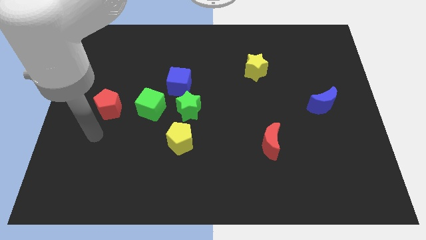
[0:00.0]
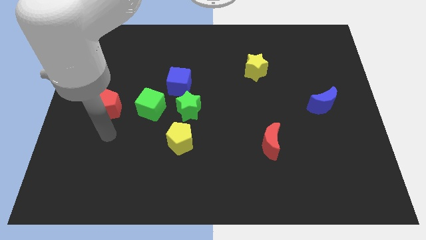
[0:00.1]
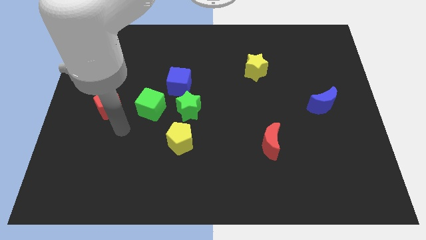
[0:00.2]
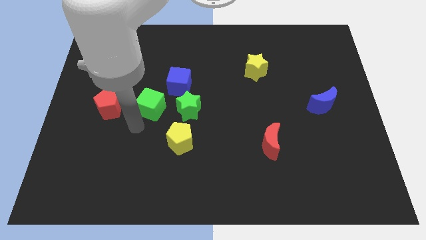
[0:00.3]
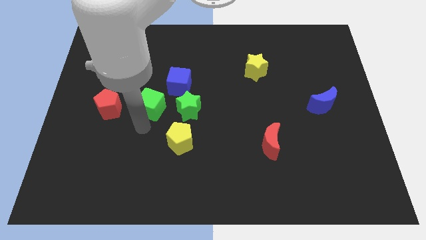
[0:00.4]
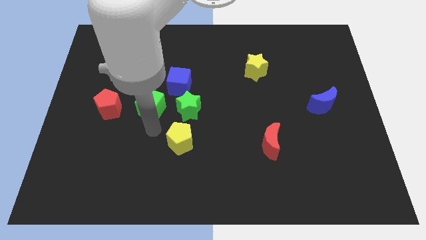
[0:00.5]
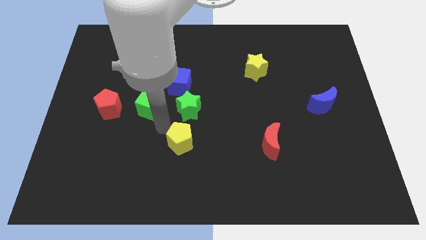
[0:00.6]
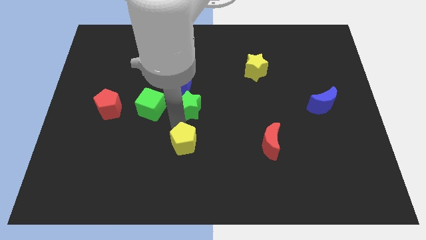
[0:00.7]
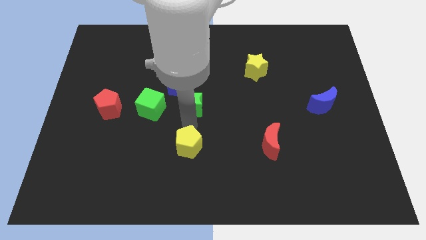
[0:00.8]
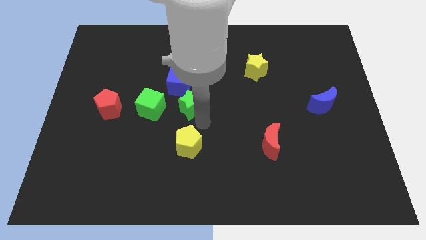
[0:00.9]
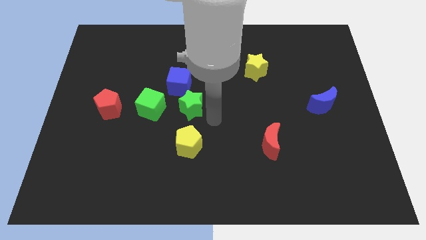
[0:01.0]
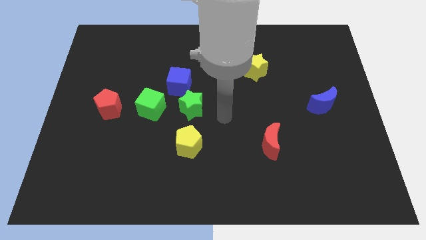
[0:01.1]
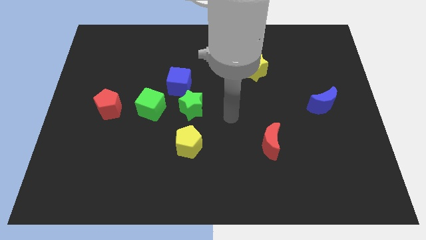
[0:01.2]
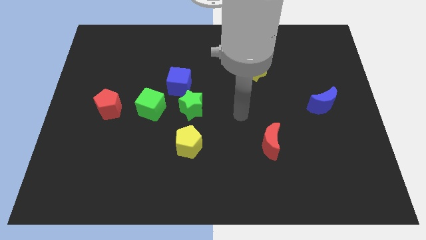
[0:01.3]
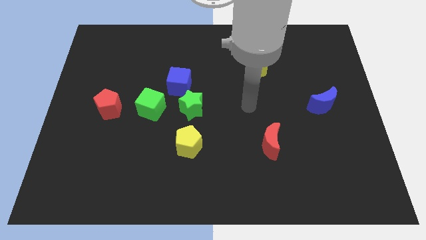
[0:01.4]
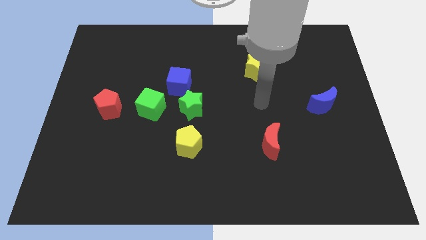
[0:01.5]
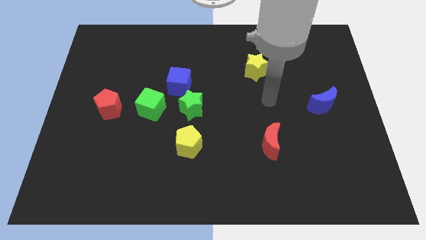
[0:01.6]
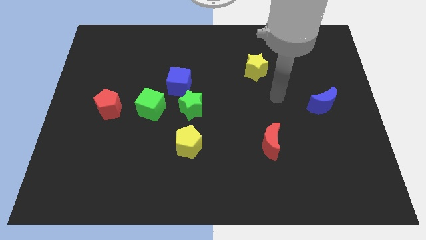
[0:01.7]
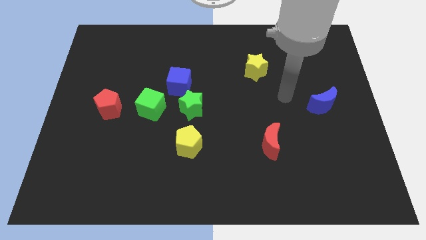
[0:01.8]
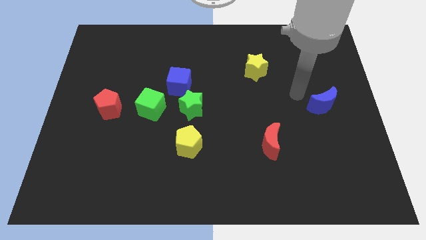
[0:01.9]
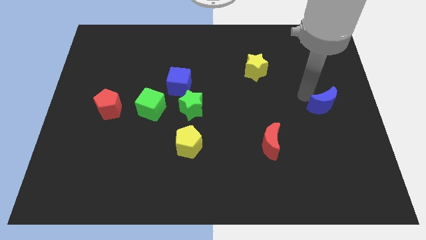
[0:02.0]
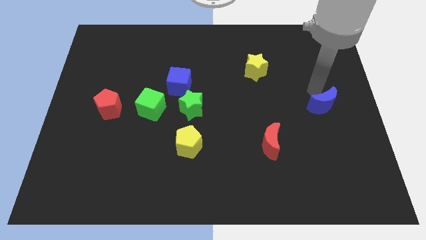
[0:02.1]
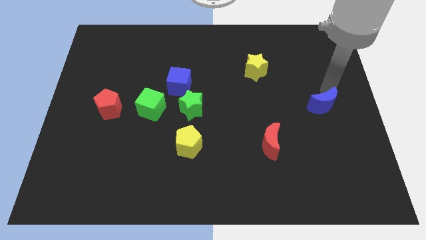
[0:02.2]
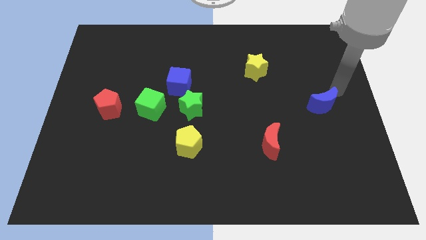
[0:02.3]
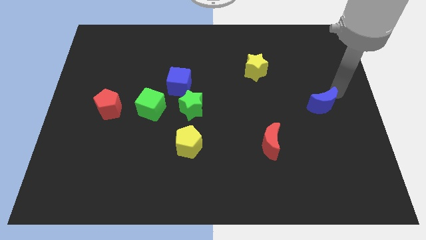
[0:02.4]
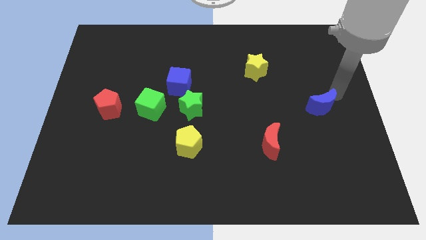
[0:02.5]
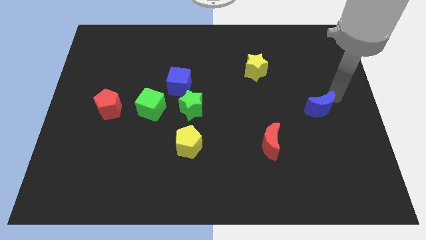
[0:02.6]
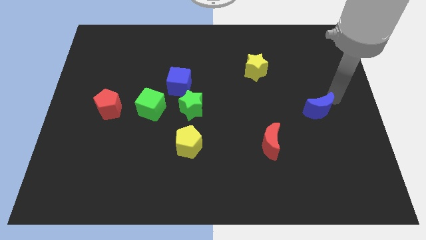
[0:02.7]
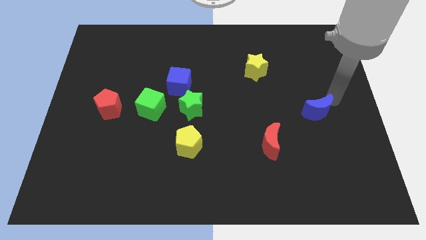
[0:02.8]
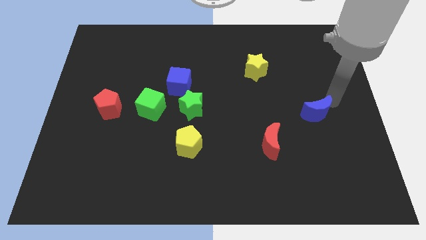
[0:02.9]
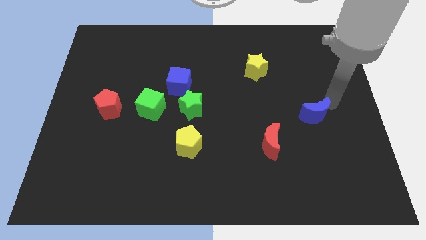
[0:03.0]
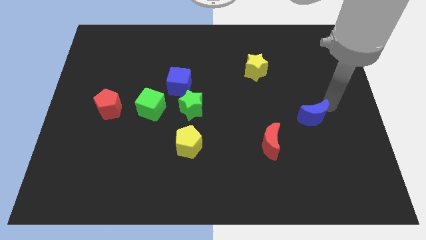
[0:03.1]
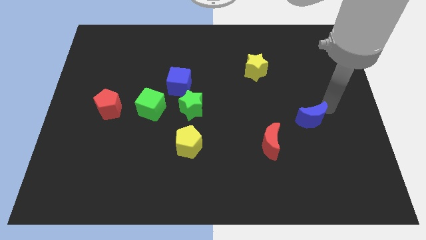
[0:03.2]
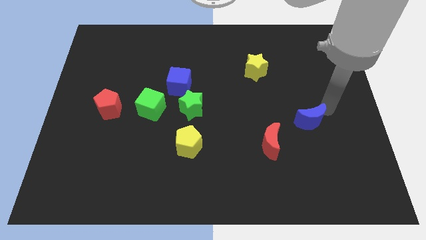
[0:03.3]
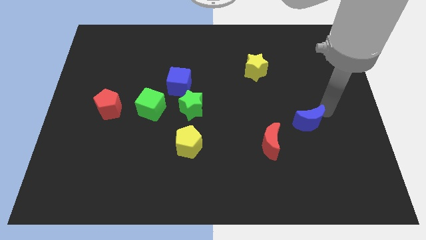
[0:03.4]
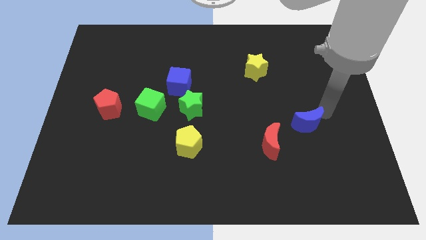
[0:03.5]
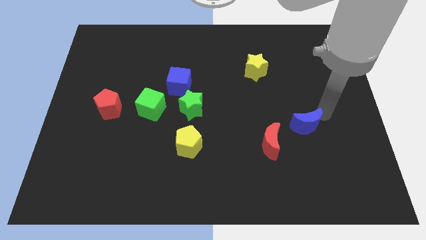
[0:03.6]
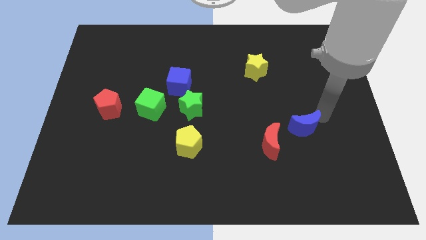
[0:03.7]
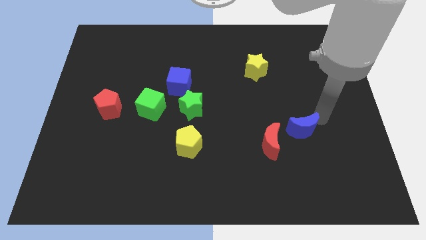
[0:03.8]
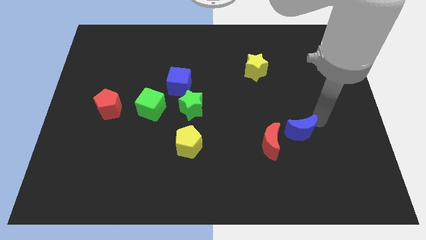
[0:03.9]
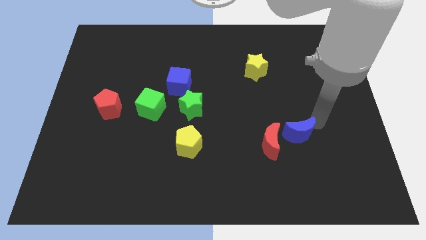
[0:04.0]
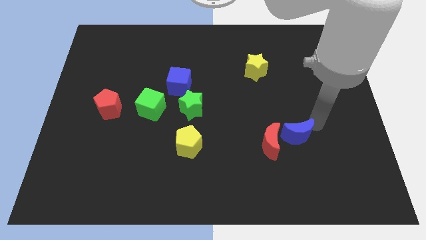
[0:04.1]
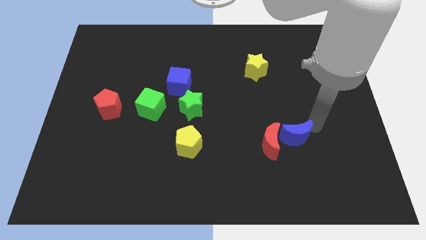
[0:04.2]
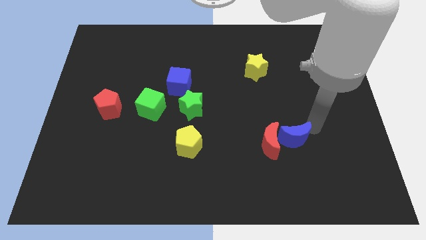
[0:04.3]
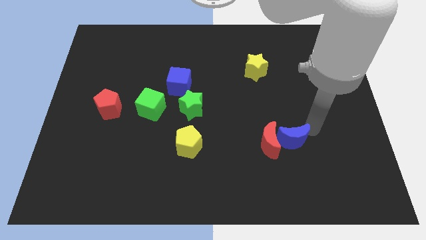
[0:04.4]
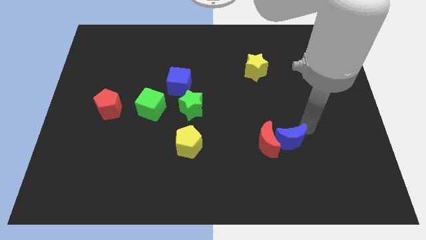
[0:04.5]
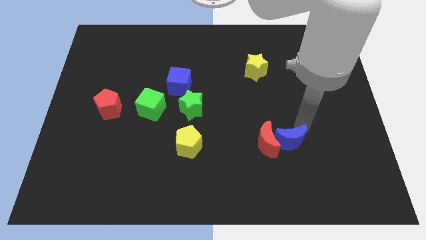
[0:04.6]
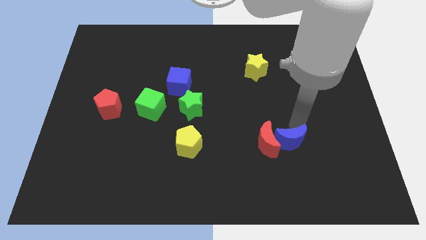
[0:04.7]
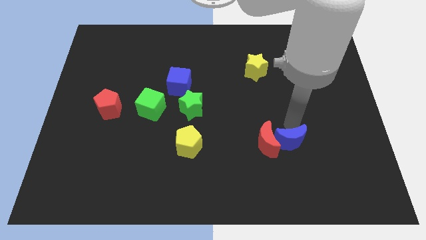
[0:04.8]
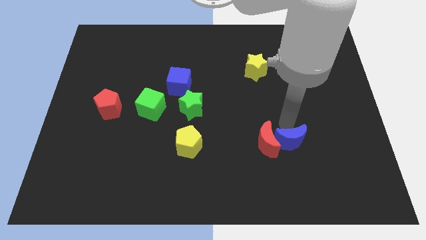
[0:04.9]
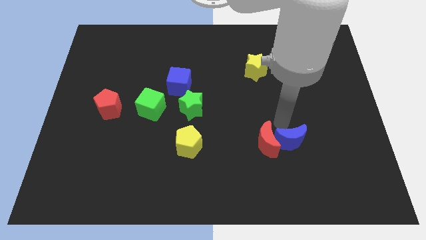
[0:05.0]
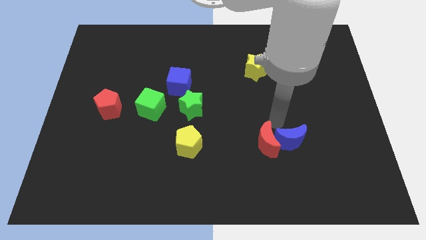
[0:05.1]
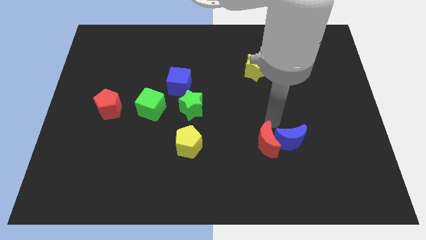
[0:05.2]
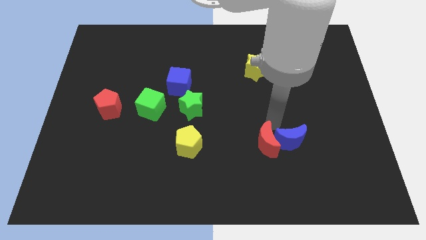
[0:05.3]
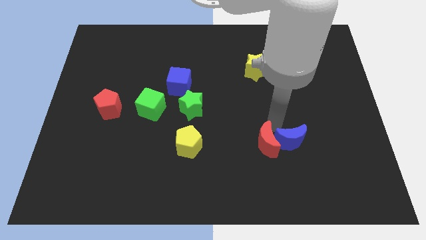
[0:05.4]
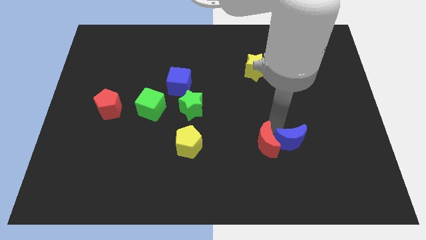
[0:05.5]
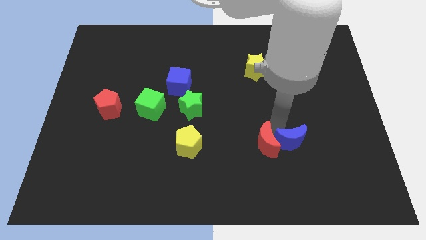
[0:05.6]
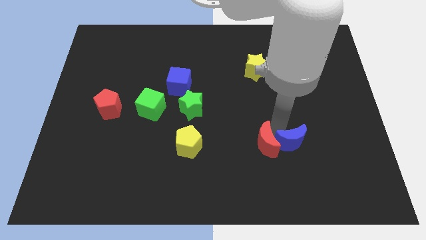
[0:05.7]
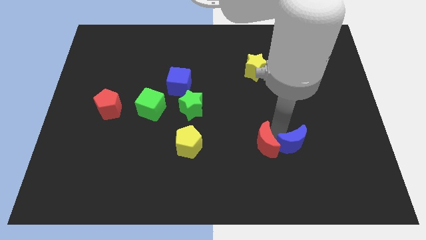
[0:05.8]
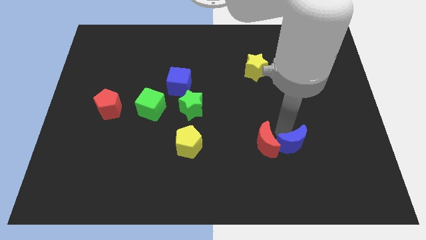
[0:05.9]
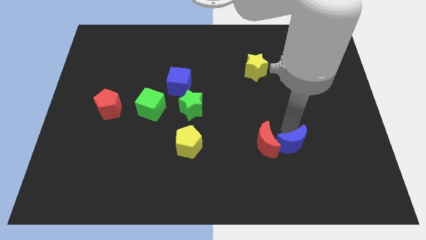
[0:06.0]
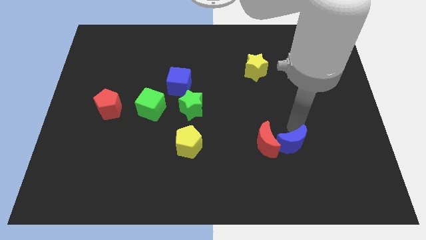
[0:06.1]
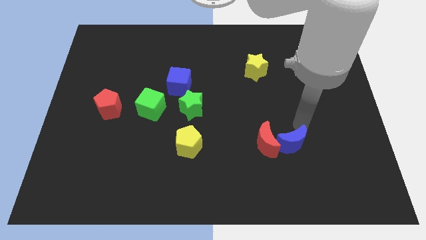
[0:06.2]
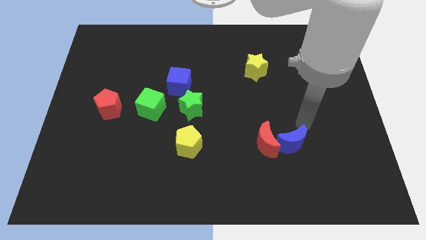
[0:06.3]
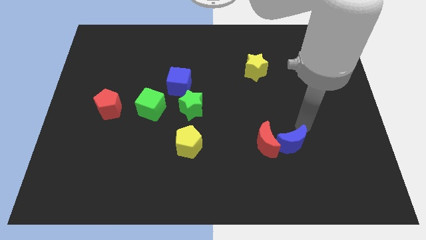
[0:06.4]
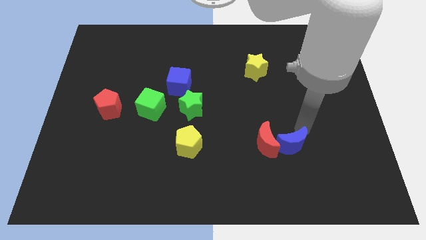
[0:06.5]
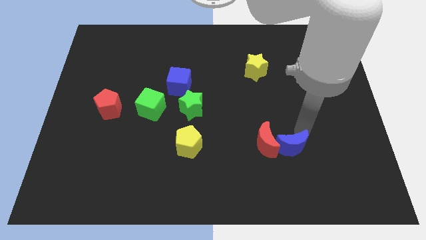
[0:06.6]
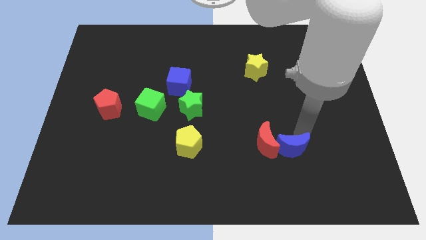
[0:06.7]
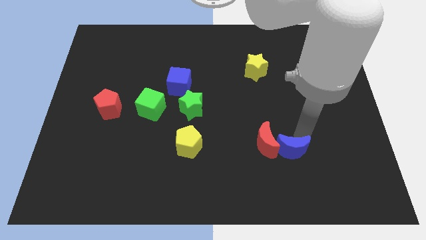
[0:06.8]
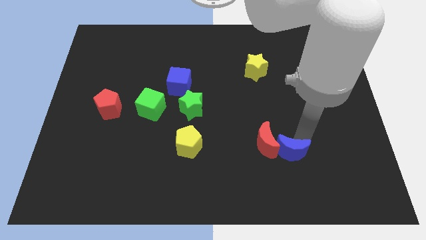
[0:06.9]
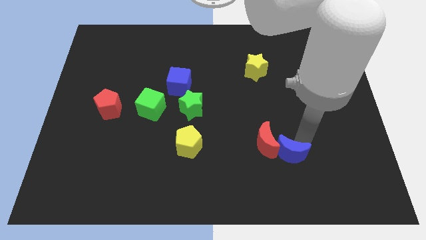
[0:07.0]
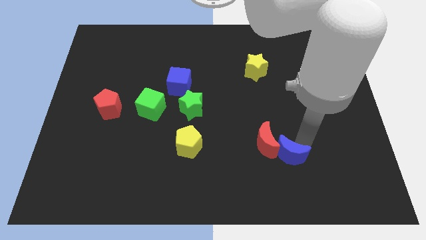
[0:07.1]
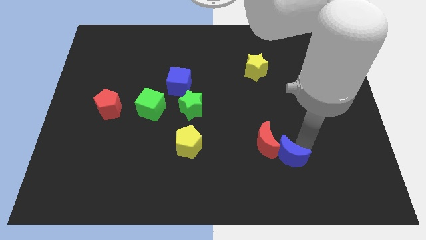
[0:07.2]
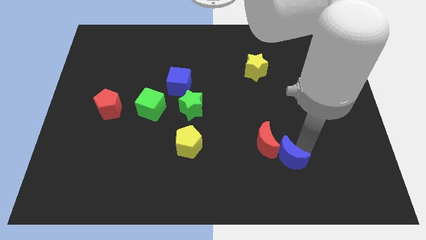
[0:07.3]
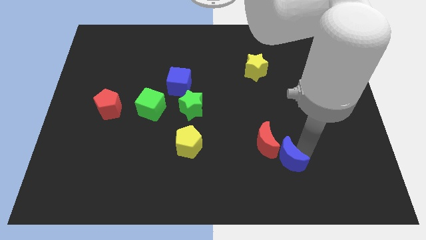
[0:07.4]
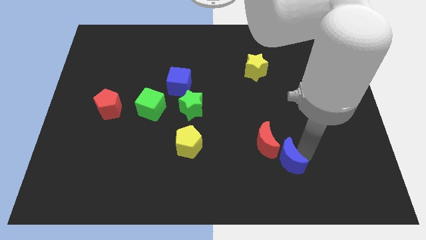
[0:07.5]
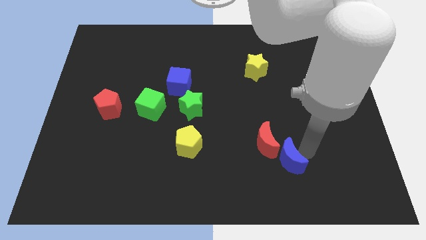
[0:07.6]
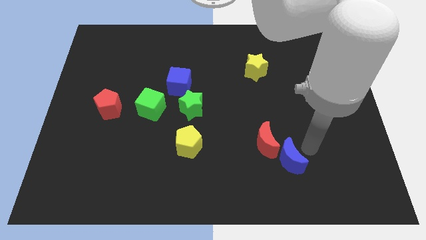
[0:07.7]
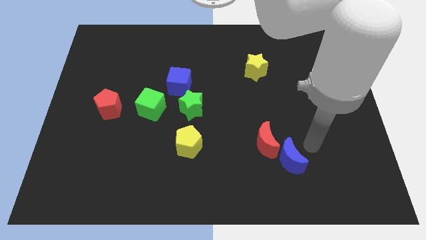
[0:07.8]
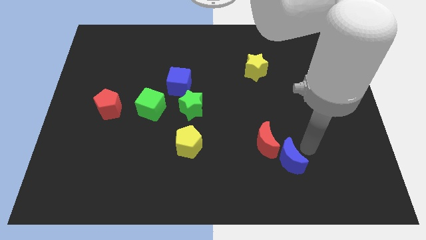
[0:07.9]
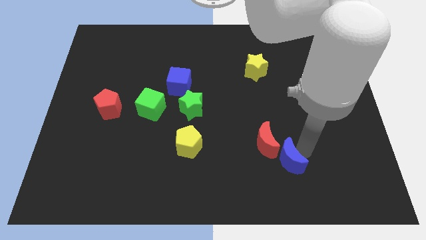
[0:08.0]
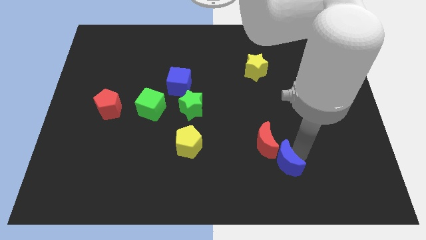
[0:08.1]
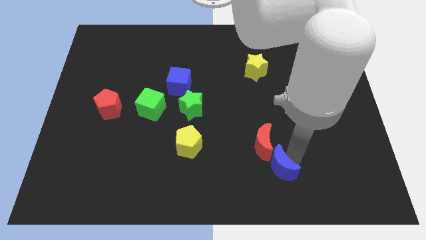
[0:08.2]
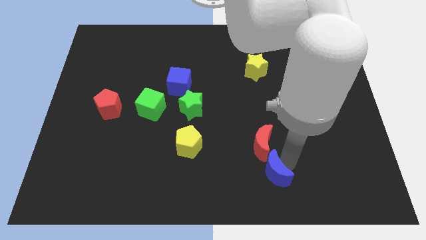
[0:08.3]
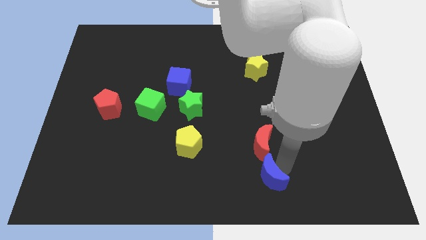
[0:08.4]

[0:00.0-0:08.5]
slide the blue moon to the bottom
